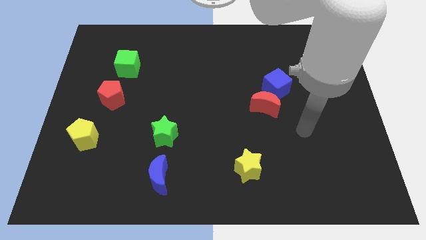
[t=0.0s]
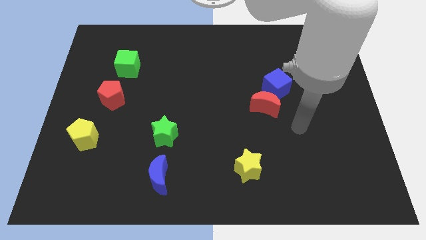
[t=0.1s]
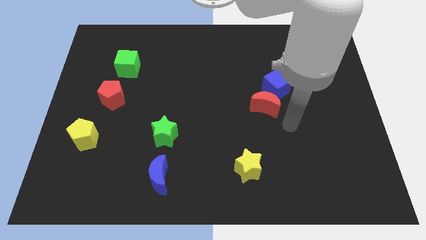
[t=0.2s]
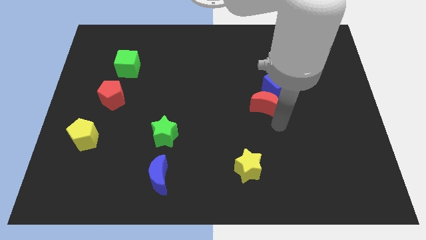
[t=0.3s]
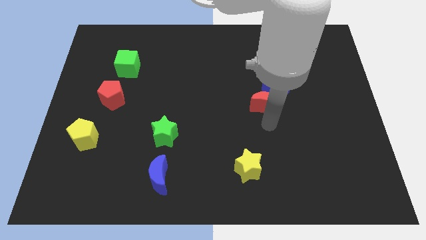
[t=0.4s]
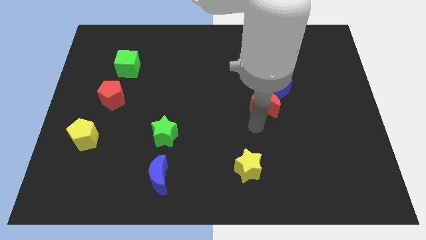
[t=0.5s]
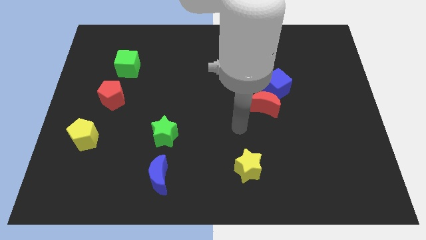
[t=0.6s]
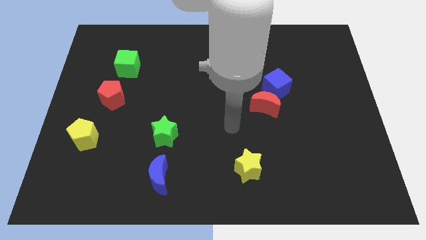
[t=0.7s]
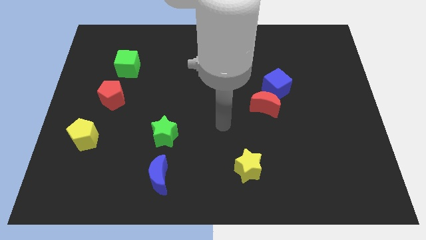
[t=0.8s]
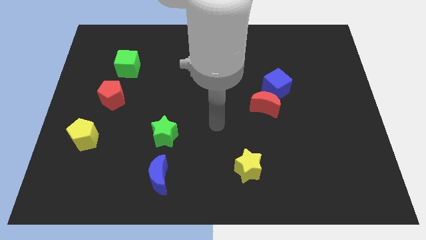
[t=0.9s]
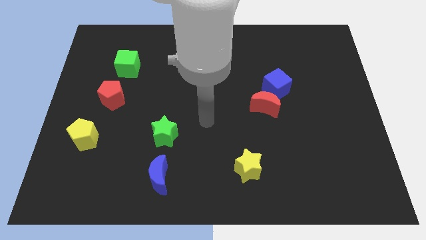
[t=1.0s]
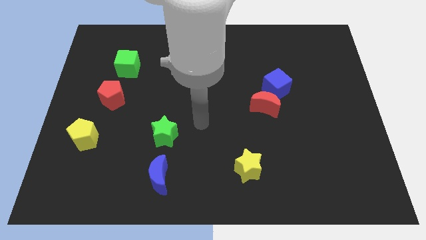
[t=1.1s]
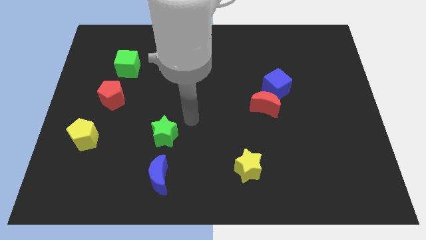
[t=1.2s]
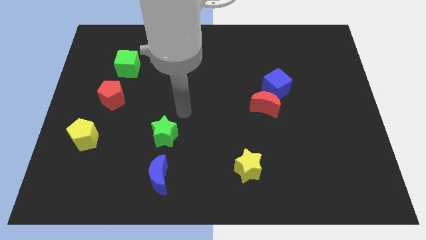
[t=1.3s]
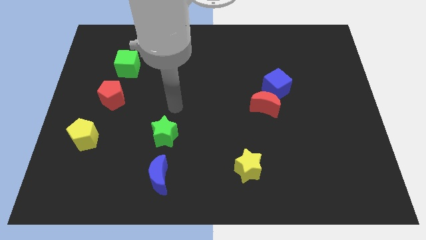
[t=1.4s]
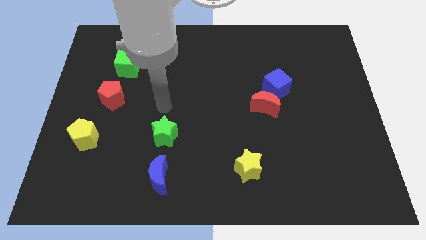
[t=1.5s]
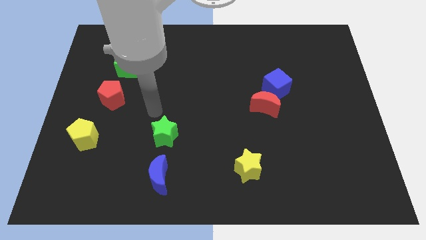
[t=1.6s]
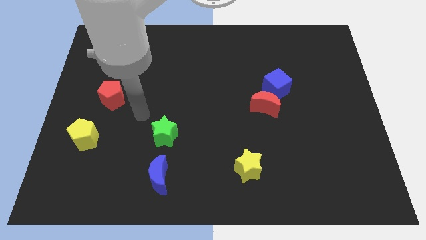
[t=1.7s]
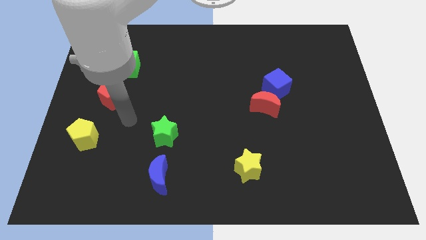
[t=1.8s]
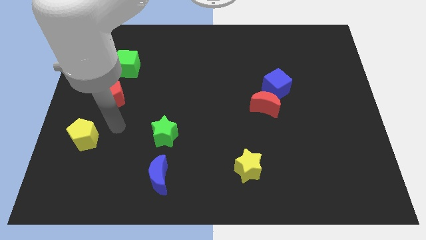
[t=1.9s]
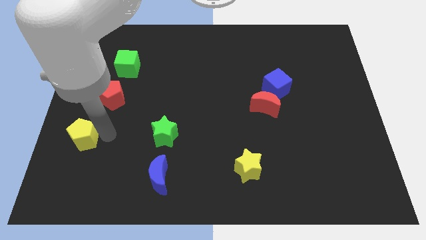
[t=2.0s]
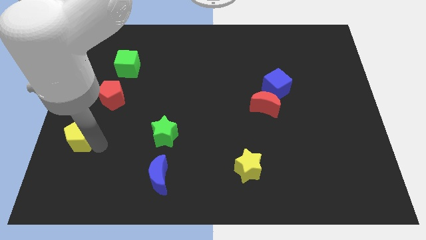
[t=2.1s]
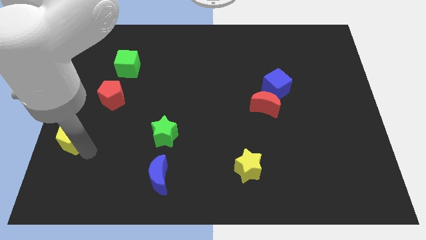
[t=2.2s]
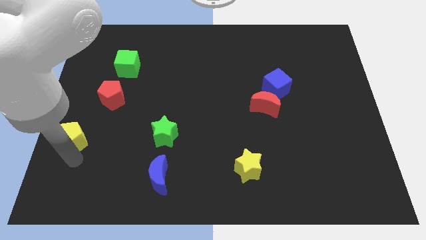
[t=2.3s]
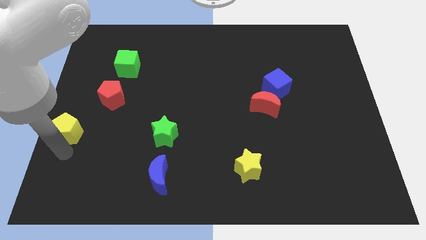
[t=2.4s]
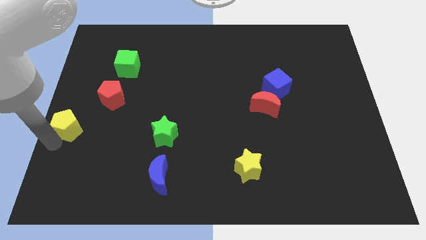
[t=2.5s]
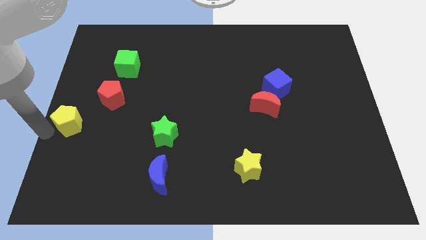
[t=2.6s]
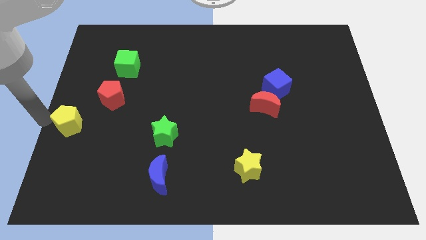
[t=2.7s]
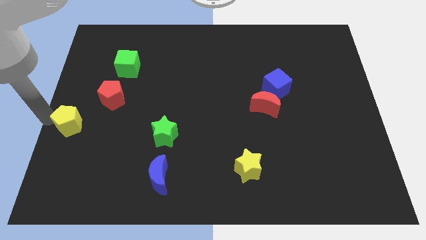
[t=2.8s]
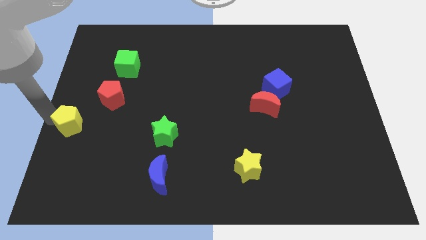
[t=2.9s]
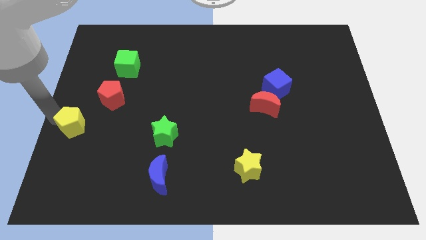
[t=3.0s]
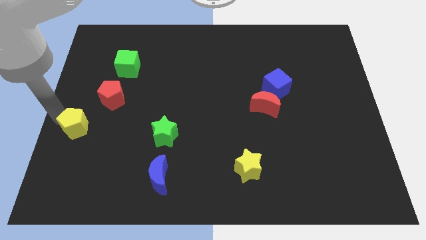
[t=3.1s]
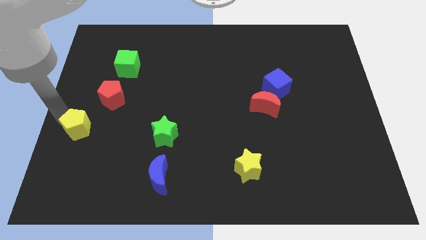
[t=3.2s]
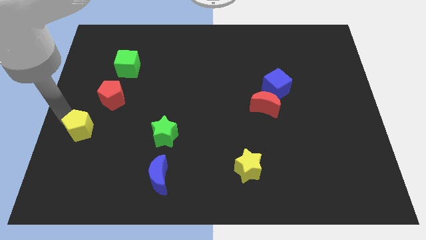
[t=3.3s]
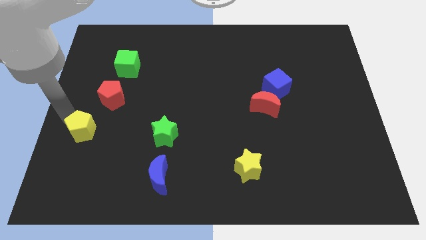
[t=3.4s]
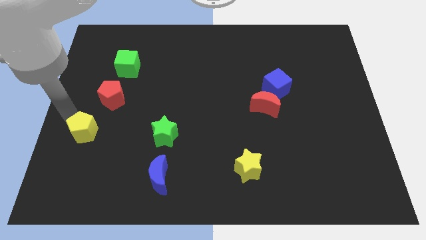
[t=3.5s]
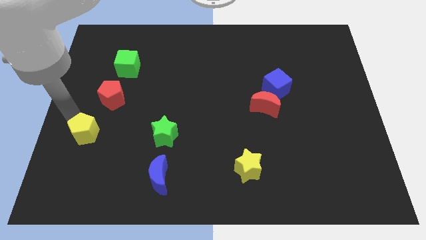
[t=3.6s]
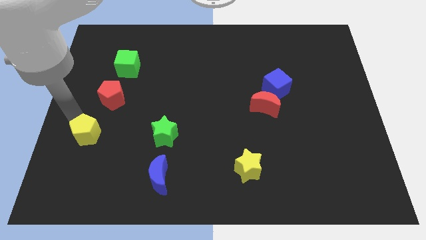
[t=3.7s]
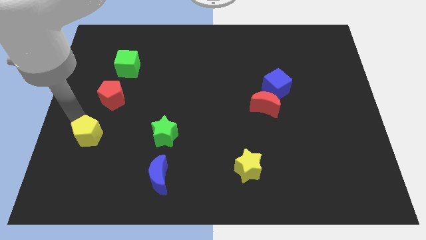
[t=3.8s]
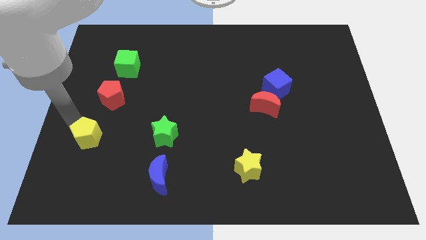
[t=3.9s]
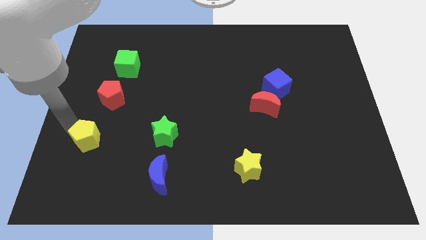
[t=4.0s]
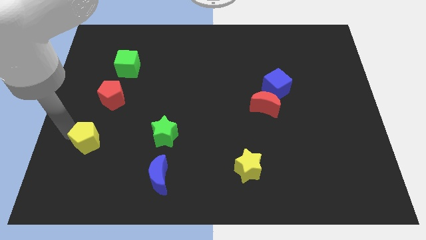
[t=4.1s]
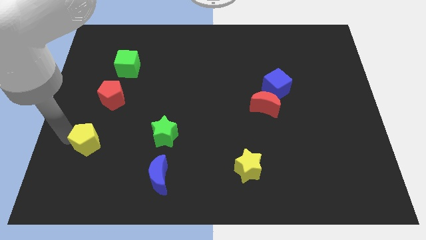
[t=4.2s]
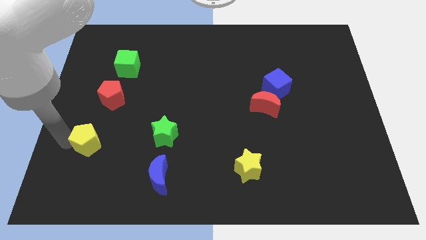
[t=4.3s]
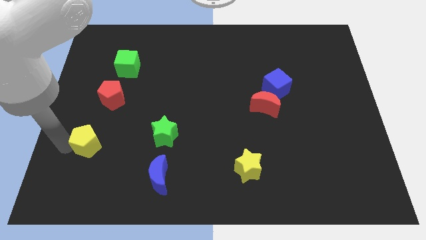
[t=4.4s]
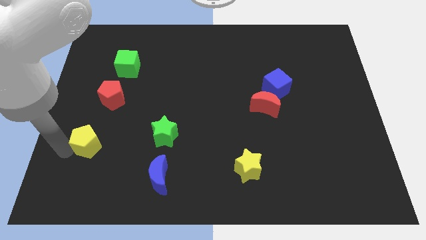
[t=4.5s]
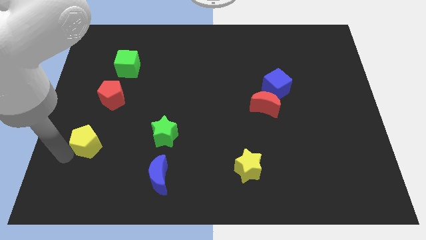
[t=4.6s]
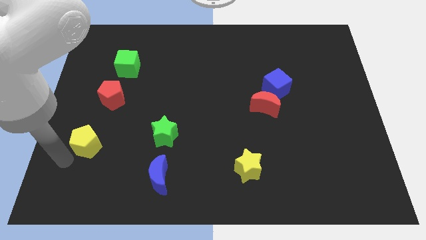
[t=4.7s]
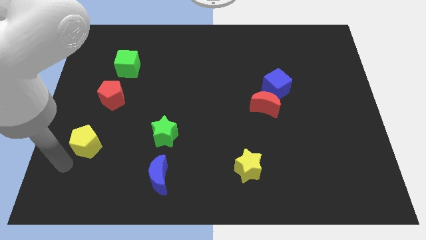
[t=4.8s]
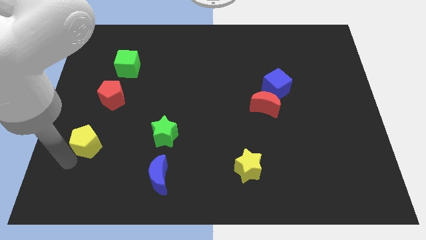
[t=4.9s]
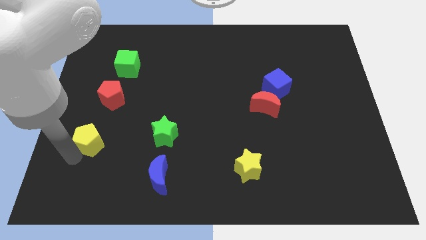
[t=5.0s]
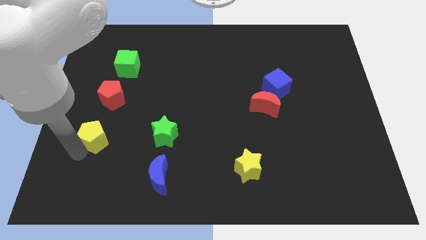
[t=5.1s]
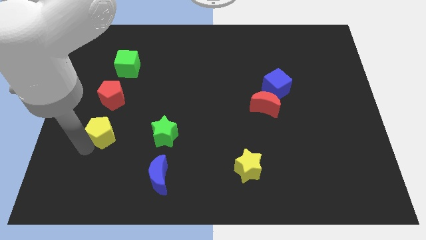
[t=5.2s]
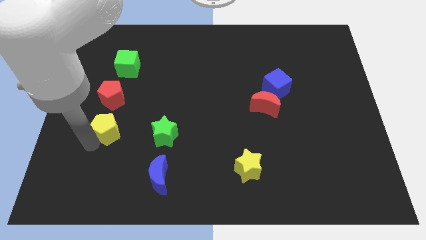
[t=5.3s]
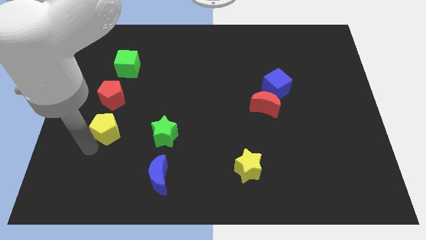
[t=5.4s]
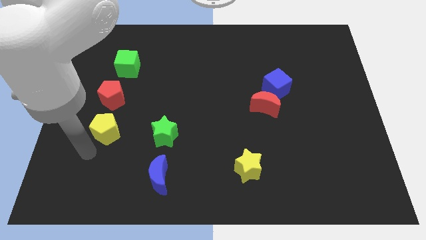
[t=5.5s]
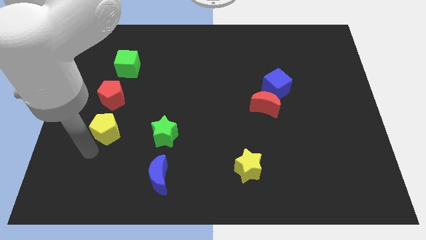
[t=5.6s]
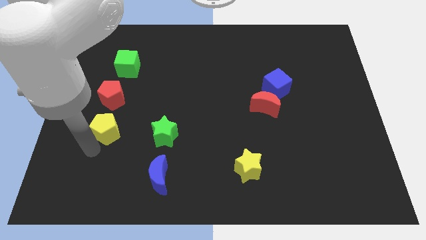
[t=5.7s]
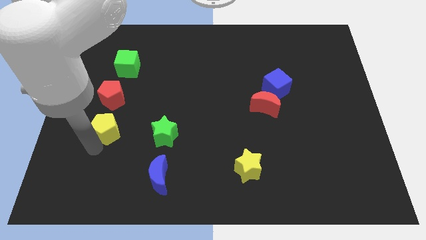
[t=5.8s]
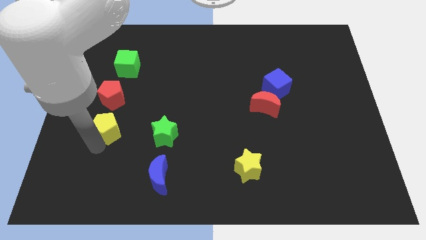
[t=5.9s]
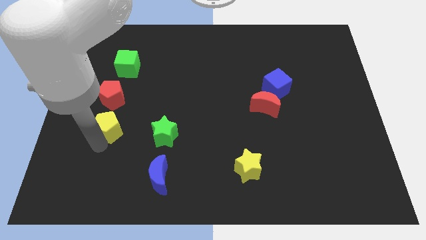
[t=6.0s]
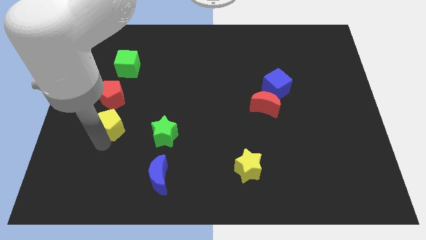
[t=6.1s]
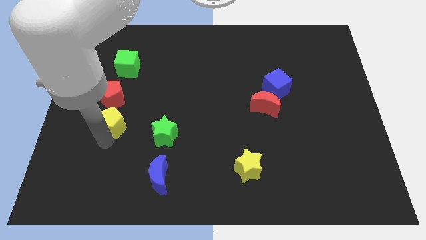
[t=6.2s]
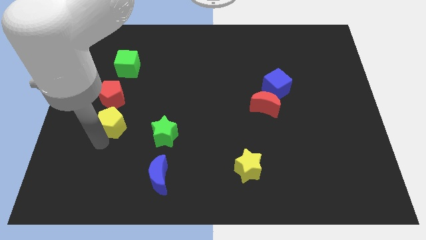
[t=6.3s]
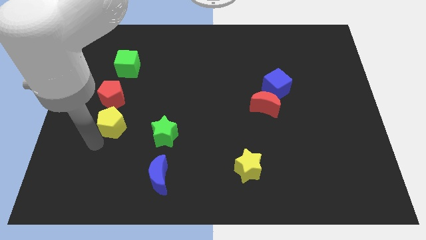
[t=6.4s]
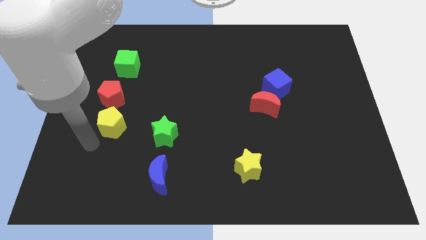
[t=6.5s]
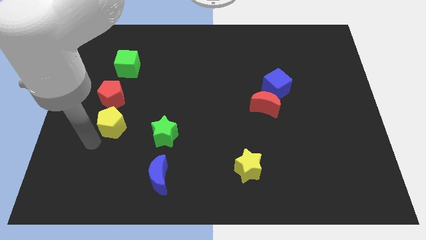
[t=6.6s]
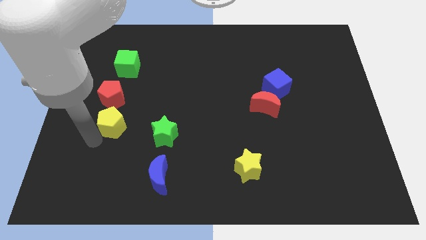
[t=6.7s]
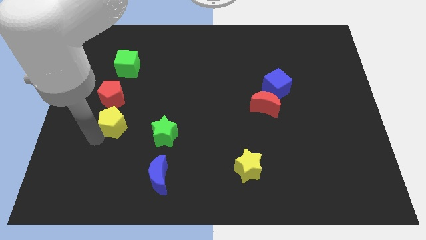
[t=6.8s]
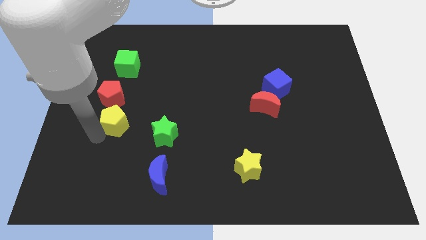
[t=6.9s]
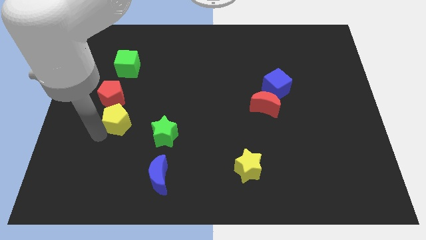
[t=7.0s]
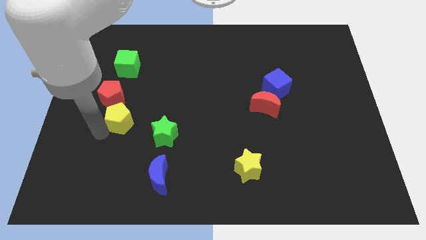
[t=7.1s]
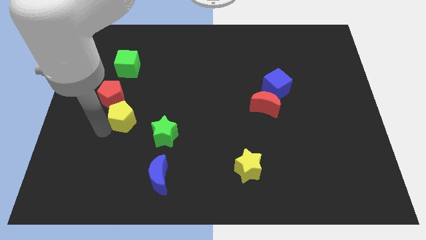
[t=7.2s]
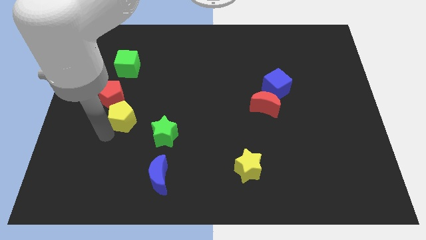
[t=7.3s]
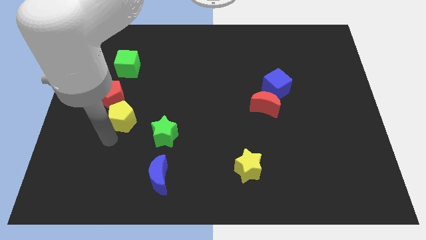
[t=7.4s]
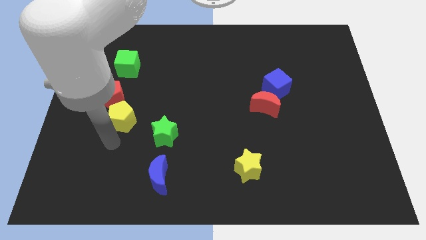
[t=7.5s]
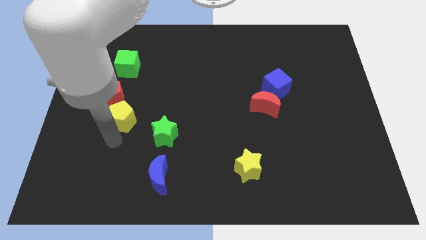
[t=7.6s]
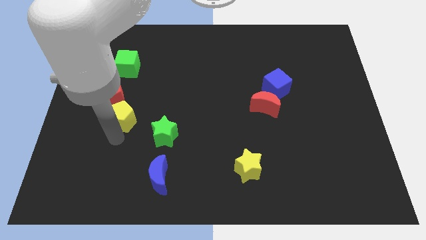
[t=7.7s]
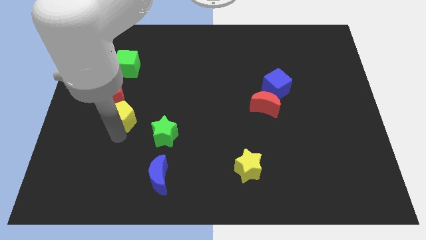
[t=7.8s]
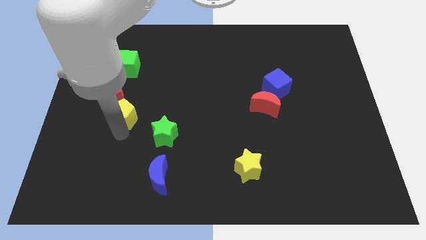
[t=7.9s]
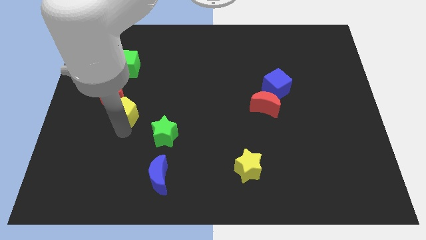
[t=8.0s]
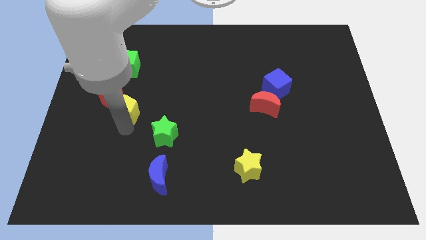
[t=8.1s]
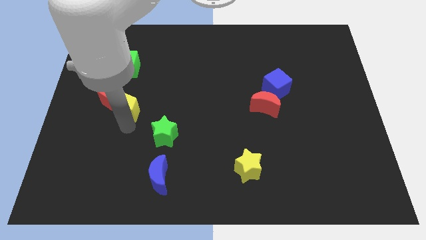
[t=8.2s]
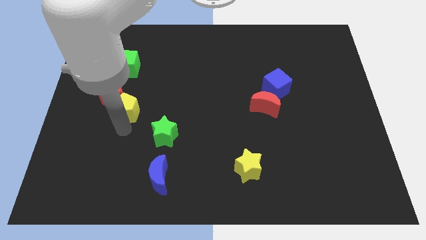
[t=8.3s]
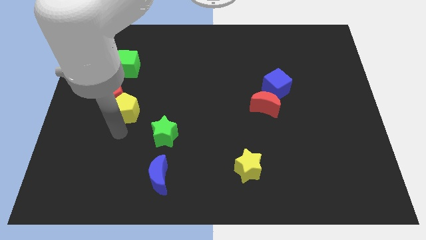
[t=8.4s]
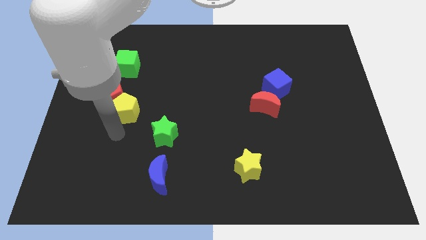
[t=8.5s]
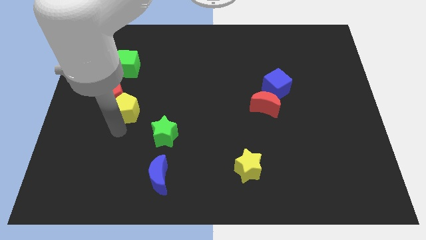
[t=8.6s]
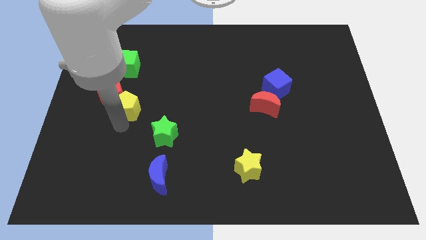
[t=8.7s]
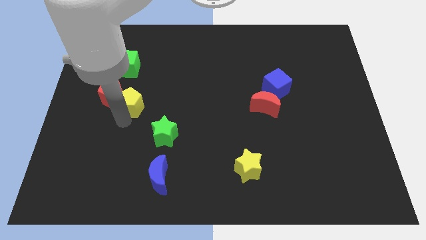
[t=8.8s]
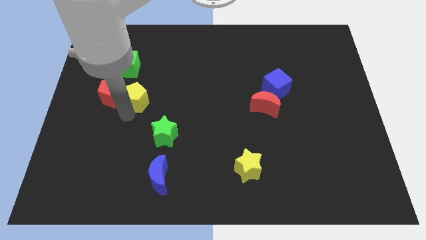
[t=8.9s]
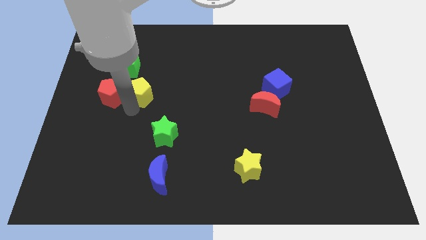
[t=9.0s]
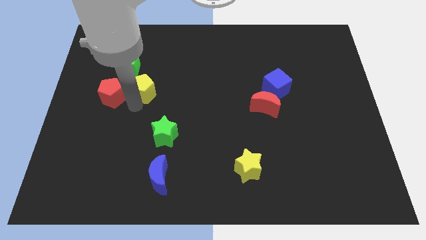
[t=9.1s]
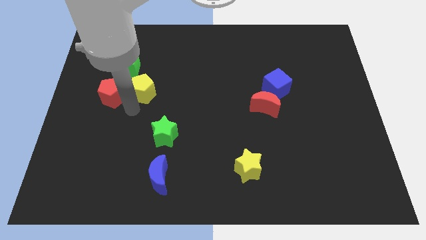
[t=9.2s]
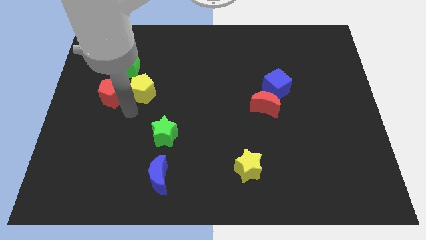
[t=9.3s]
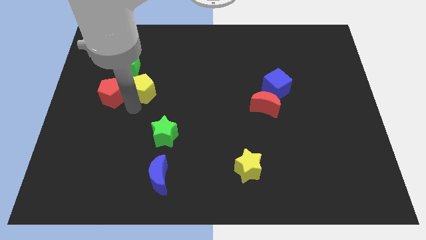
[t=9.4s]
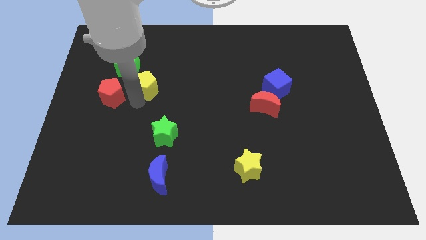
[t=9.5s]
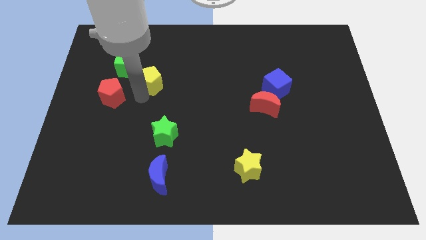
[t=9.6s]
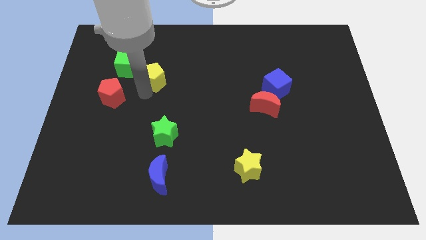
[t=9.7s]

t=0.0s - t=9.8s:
move the yellow pentagon to the right of the green cube
